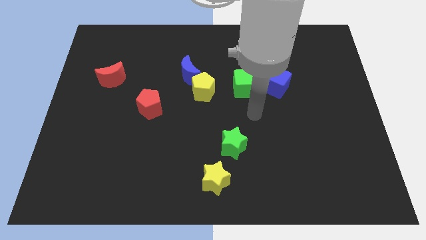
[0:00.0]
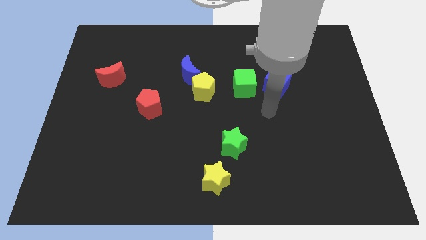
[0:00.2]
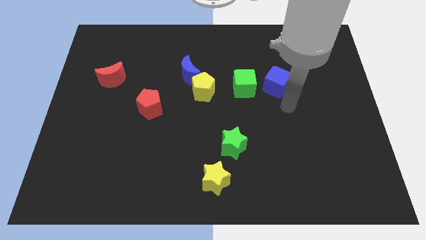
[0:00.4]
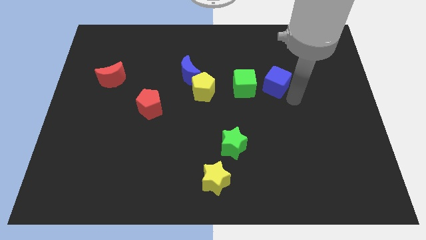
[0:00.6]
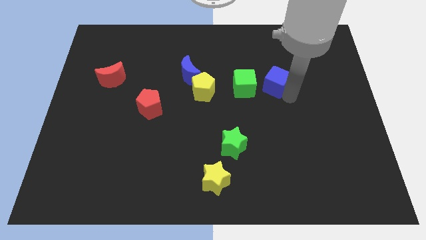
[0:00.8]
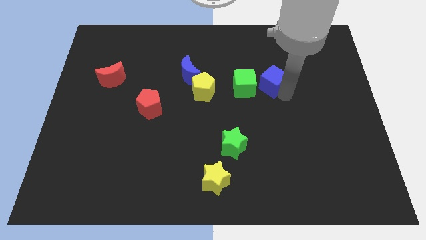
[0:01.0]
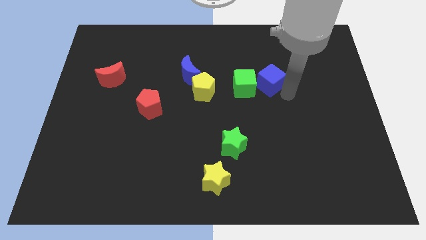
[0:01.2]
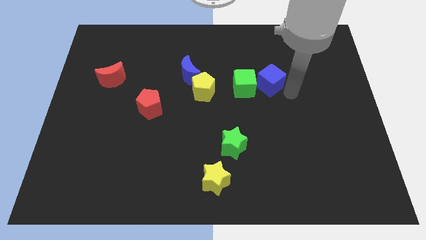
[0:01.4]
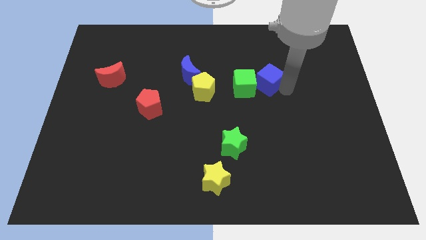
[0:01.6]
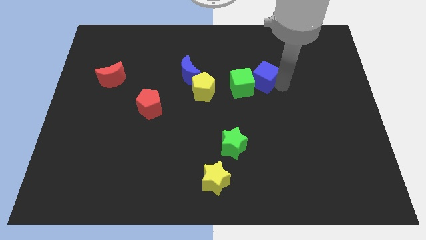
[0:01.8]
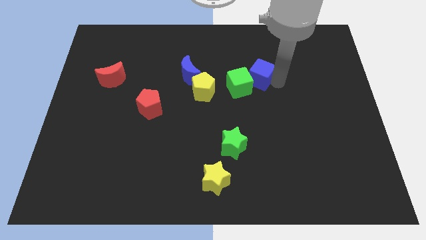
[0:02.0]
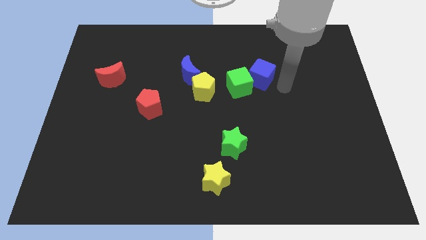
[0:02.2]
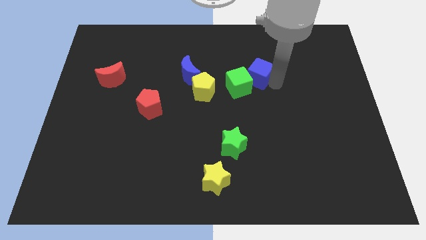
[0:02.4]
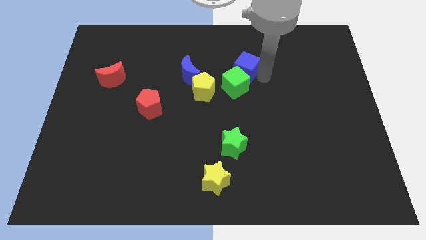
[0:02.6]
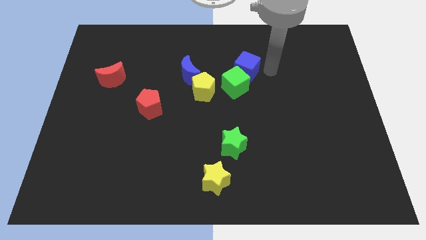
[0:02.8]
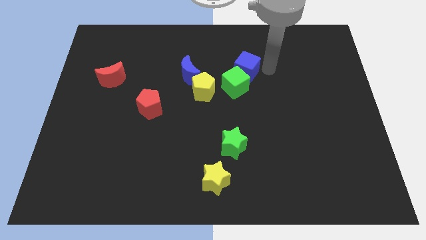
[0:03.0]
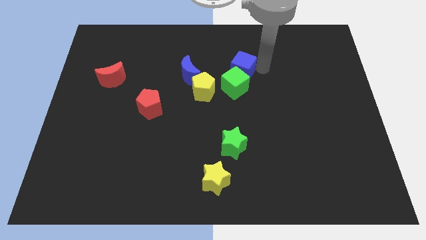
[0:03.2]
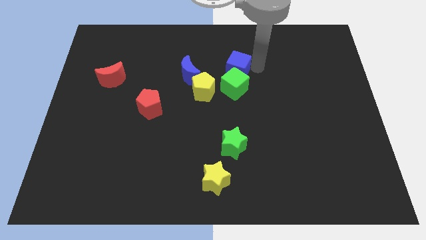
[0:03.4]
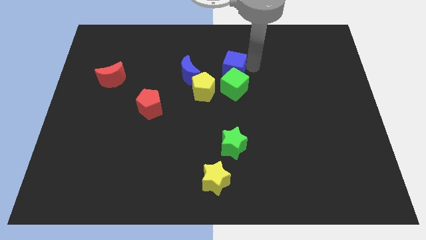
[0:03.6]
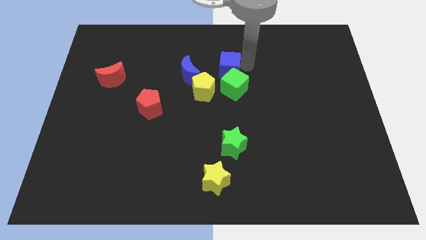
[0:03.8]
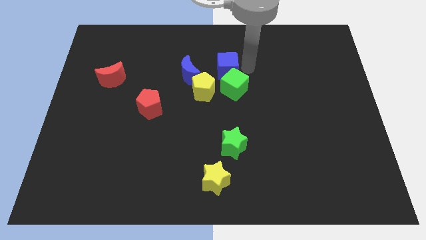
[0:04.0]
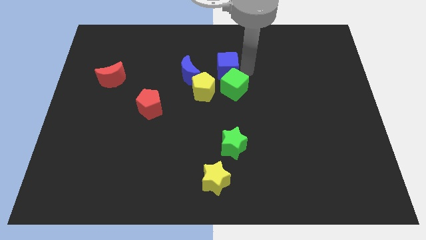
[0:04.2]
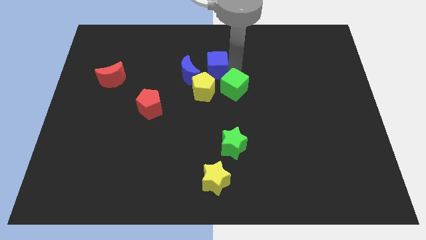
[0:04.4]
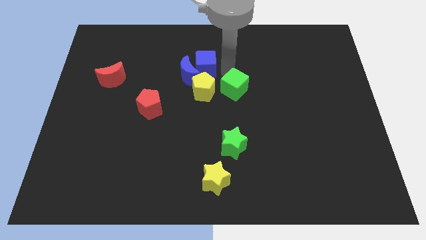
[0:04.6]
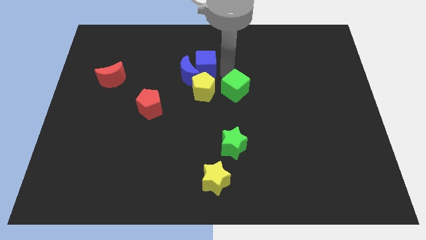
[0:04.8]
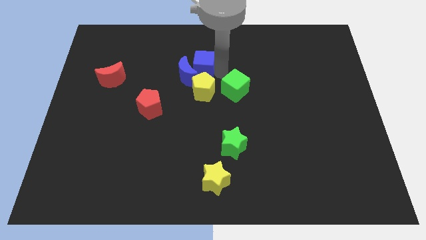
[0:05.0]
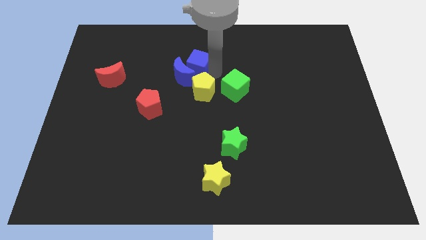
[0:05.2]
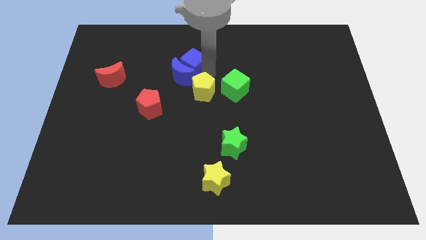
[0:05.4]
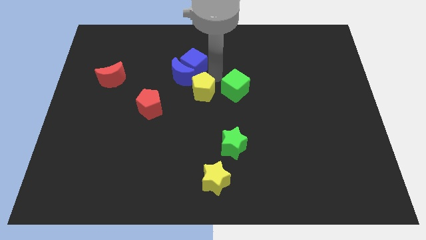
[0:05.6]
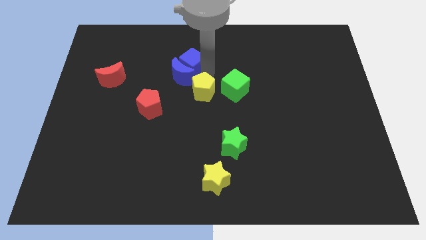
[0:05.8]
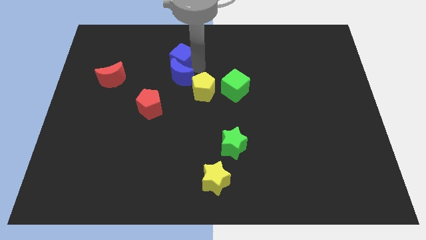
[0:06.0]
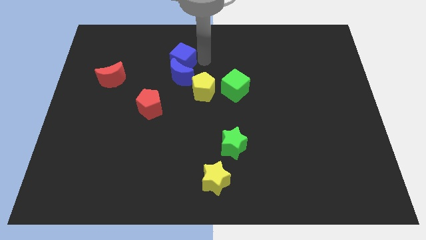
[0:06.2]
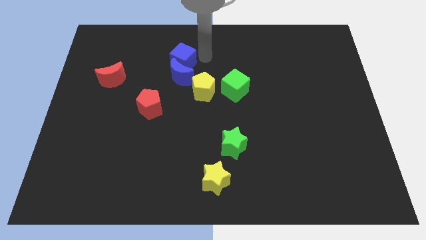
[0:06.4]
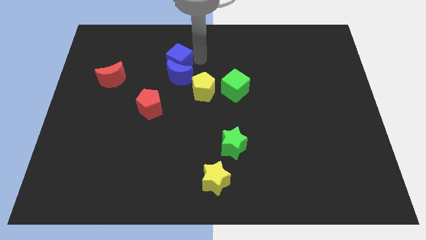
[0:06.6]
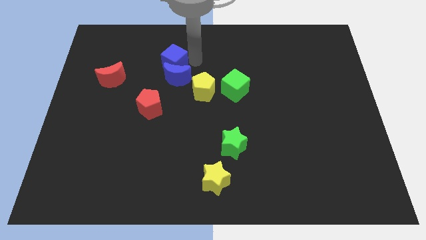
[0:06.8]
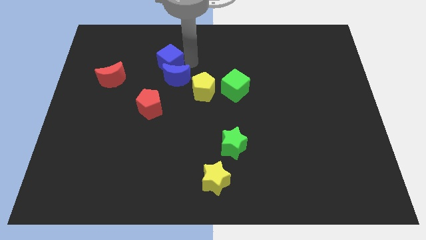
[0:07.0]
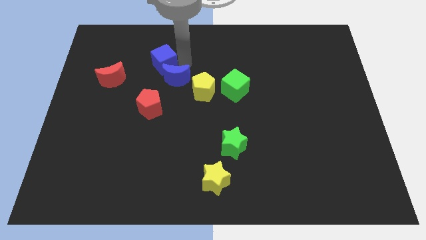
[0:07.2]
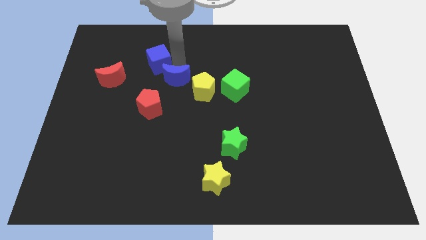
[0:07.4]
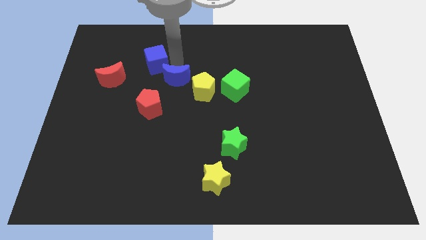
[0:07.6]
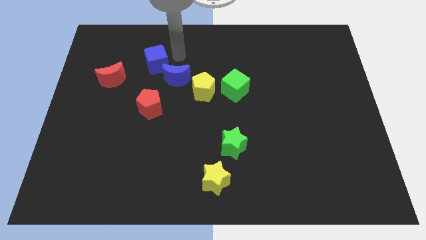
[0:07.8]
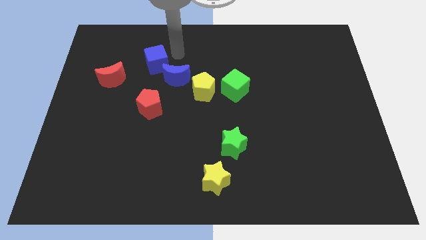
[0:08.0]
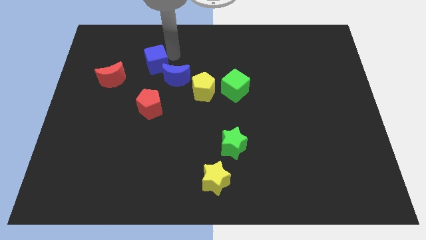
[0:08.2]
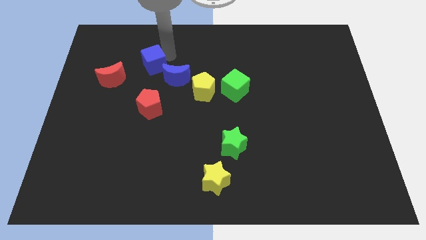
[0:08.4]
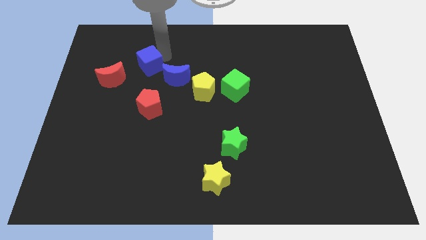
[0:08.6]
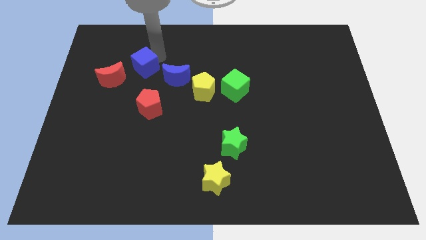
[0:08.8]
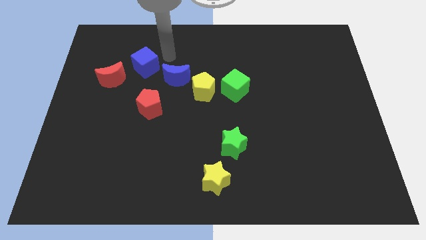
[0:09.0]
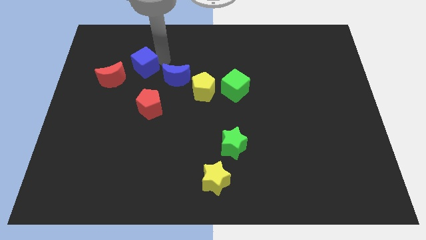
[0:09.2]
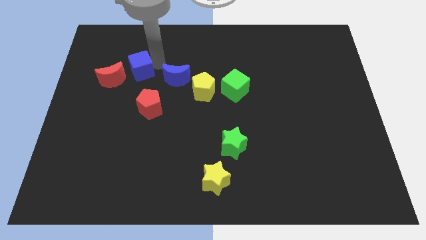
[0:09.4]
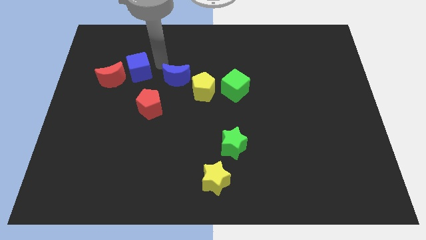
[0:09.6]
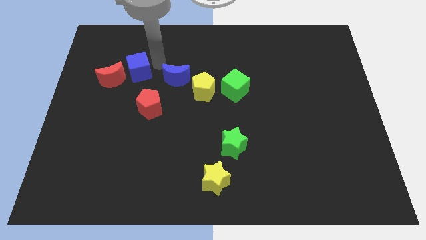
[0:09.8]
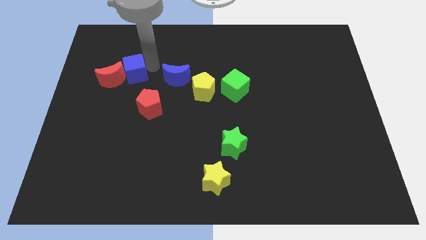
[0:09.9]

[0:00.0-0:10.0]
put the blue cube towards the red moon

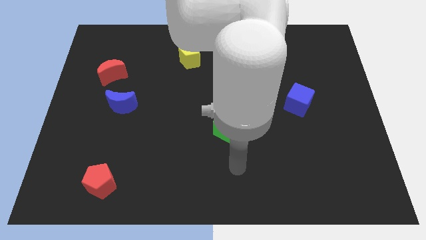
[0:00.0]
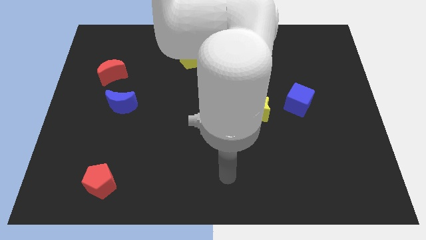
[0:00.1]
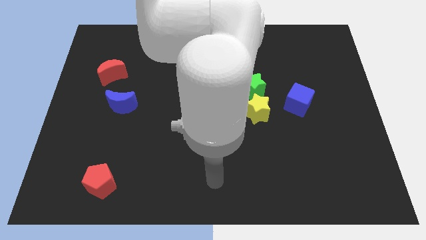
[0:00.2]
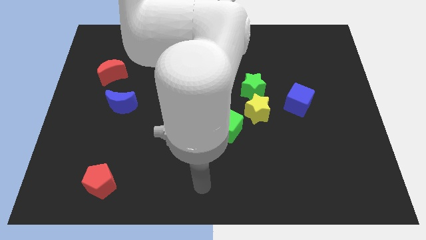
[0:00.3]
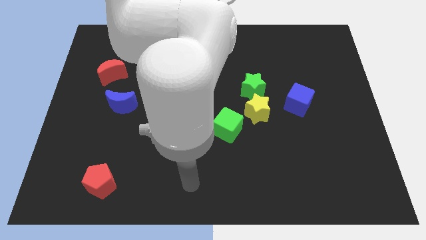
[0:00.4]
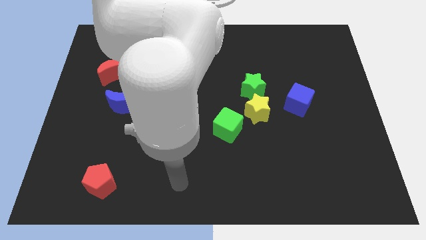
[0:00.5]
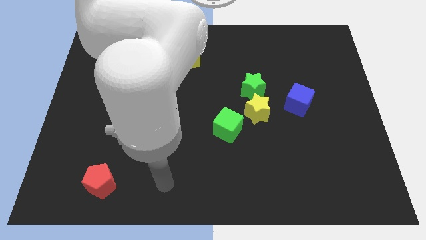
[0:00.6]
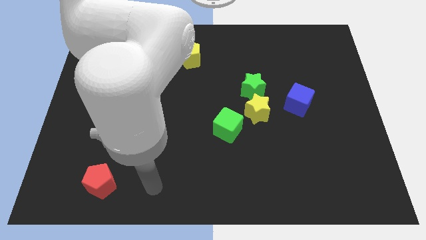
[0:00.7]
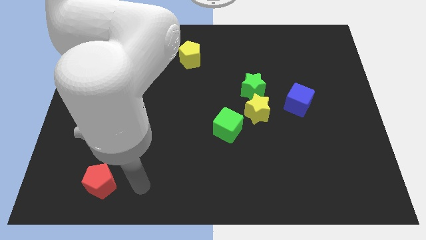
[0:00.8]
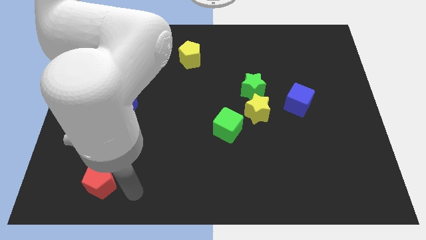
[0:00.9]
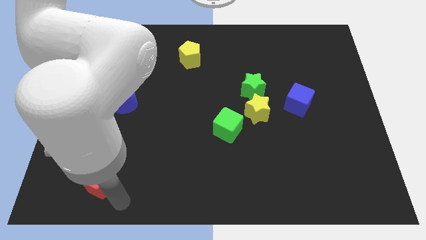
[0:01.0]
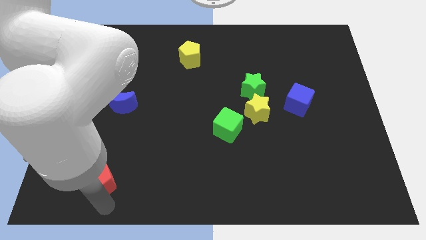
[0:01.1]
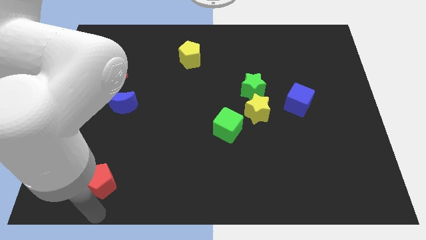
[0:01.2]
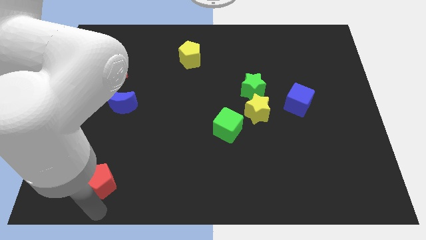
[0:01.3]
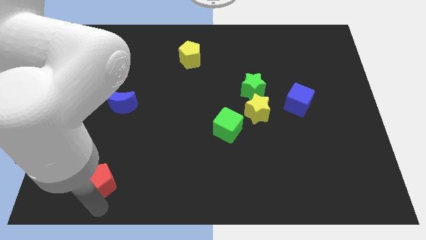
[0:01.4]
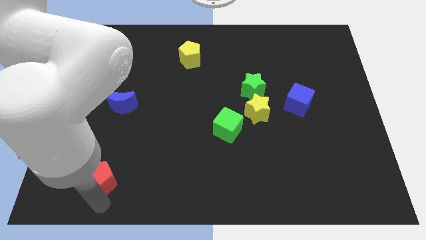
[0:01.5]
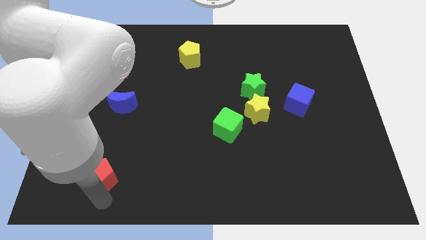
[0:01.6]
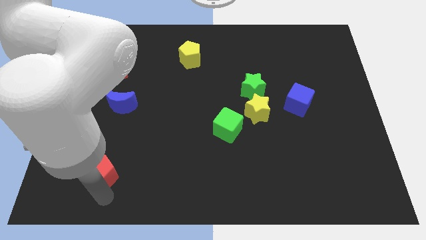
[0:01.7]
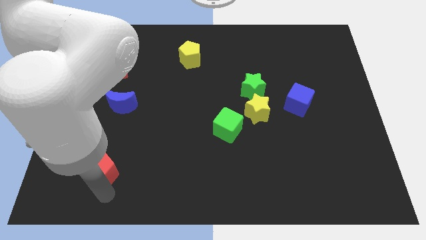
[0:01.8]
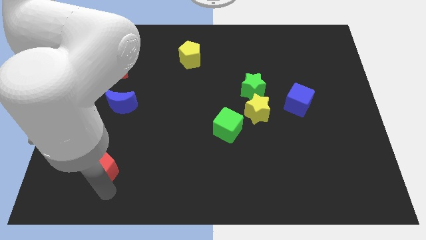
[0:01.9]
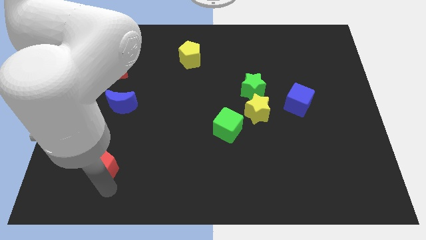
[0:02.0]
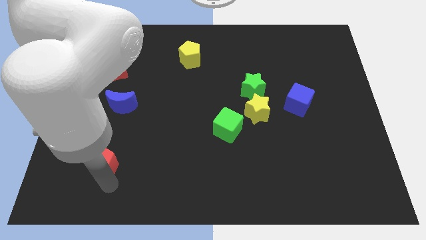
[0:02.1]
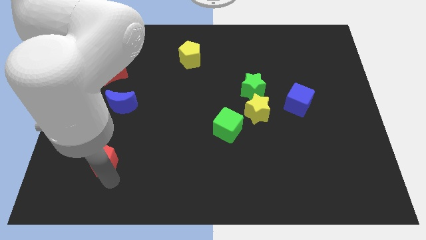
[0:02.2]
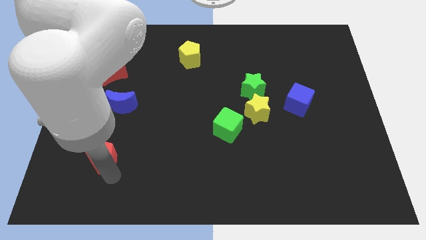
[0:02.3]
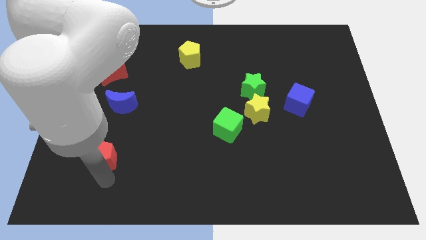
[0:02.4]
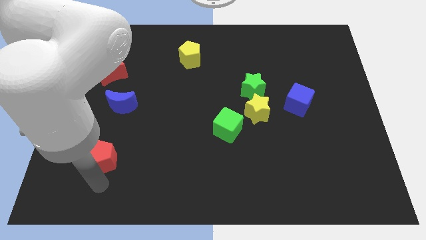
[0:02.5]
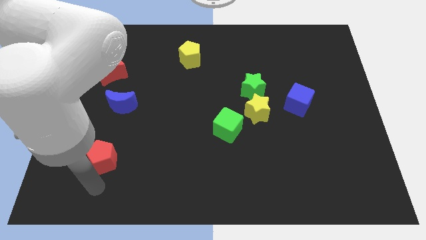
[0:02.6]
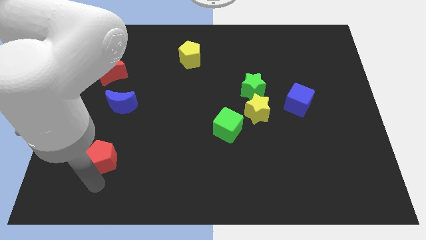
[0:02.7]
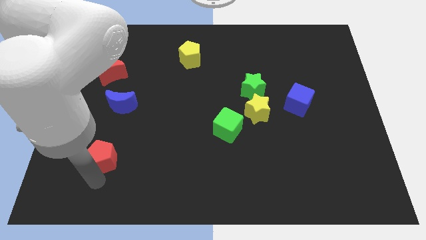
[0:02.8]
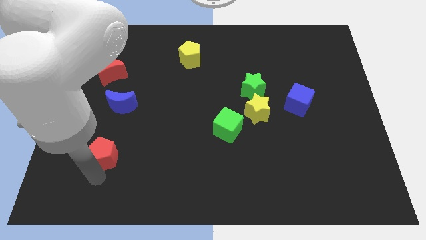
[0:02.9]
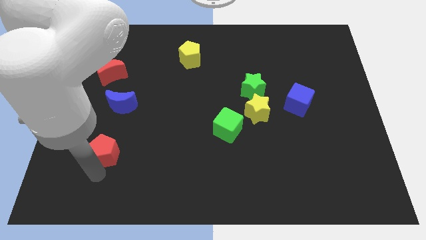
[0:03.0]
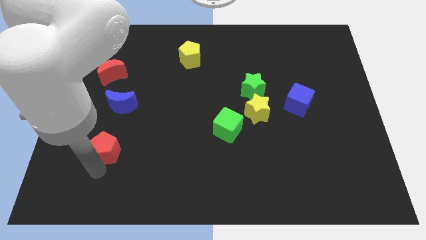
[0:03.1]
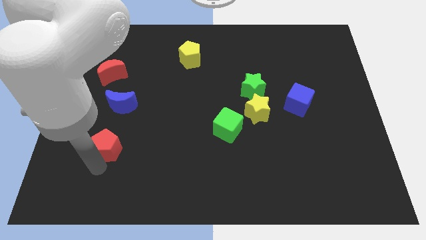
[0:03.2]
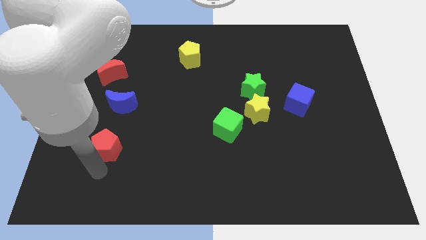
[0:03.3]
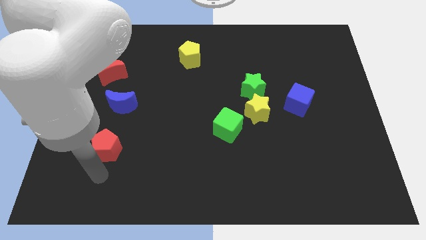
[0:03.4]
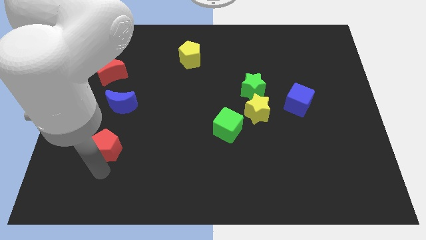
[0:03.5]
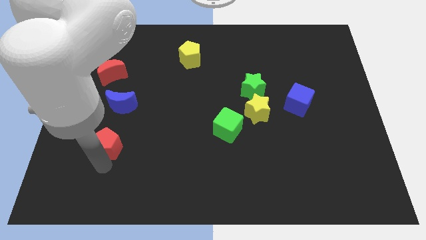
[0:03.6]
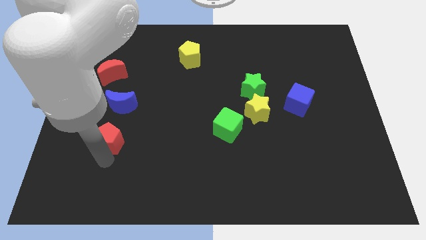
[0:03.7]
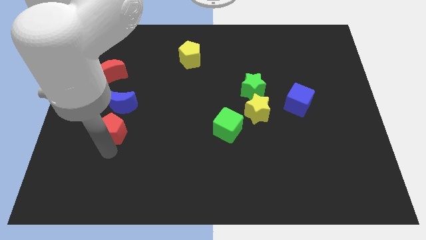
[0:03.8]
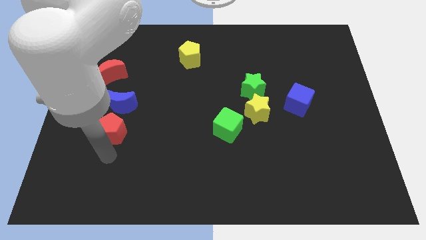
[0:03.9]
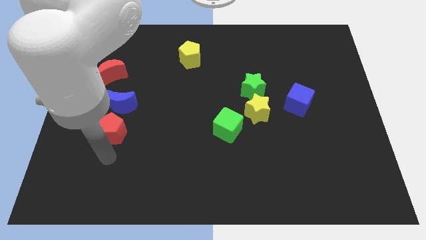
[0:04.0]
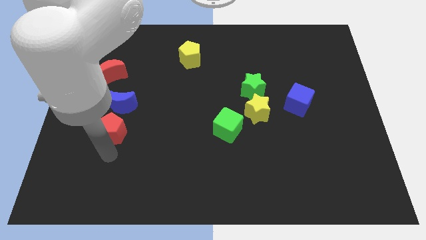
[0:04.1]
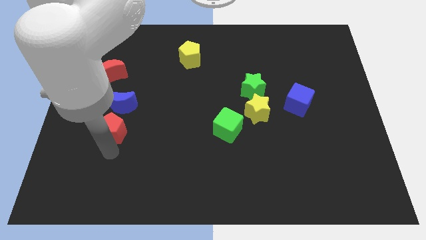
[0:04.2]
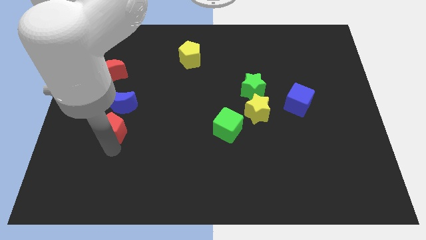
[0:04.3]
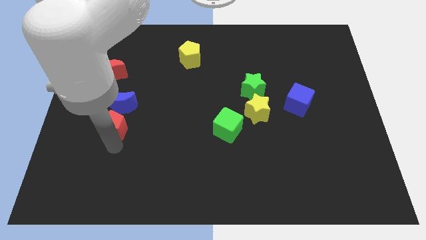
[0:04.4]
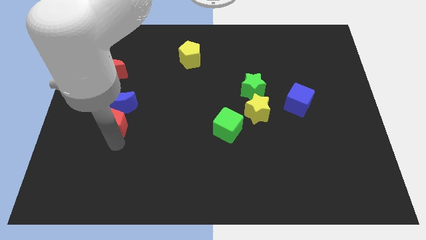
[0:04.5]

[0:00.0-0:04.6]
push the red pentagon to the blue moon
